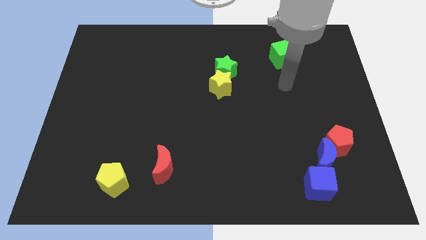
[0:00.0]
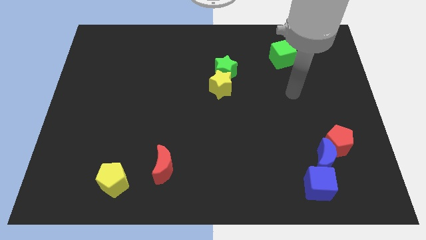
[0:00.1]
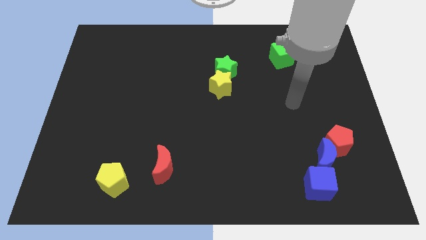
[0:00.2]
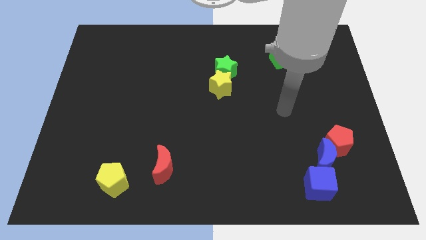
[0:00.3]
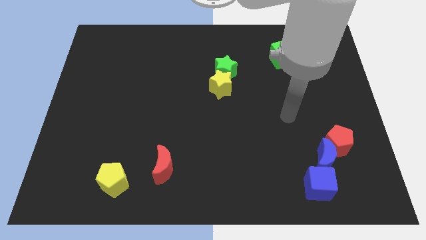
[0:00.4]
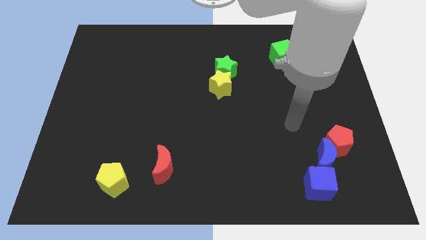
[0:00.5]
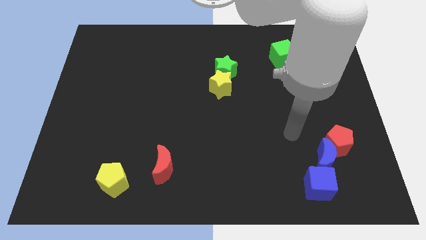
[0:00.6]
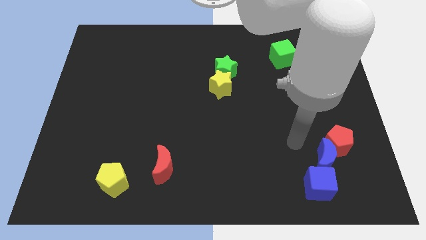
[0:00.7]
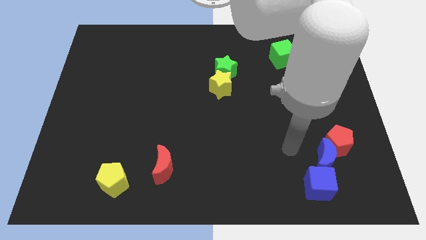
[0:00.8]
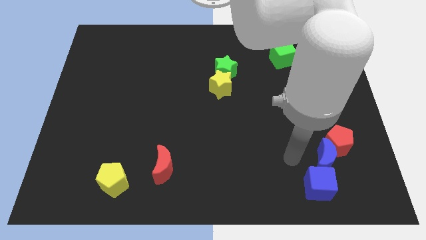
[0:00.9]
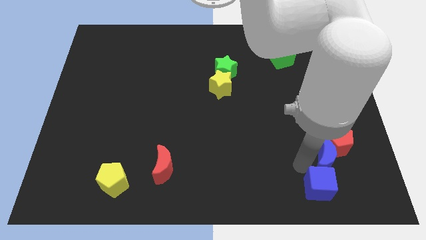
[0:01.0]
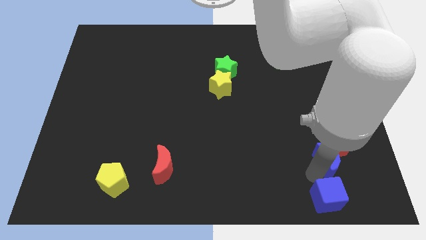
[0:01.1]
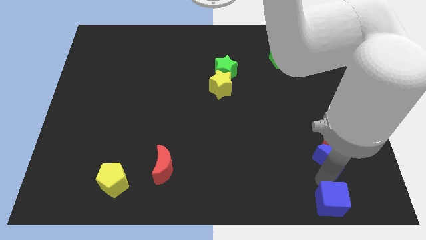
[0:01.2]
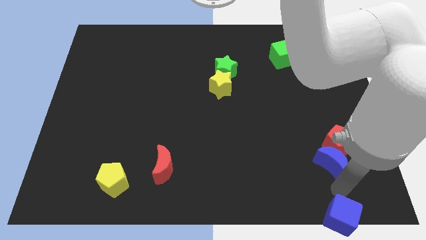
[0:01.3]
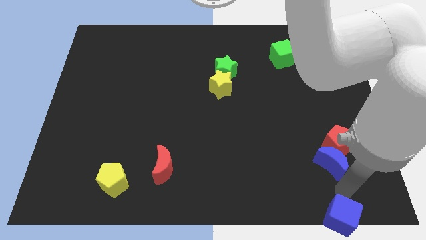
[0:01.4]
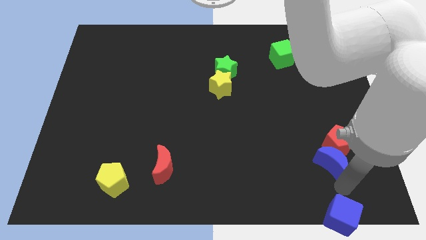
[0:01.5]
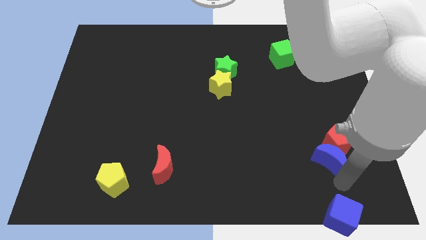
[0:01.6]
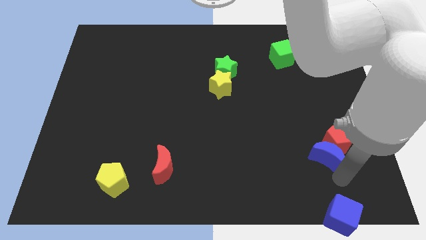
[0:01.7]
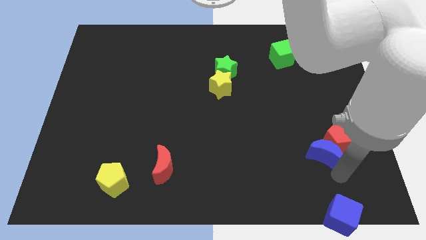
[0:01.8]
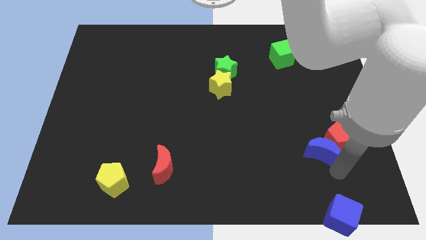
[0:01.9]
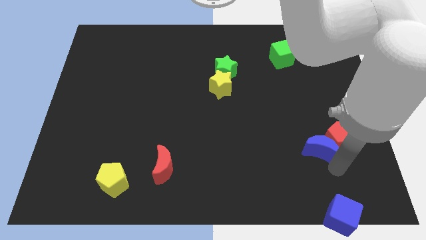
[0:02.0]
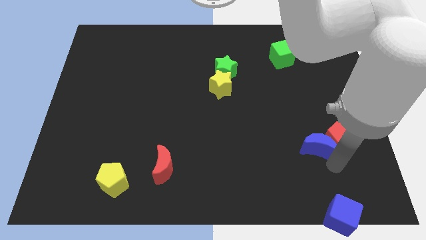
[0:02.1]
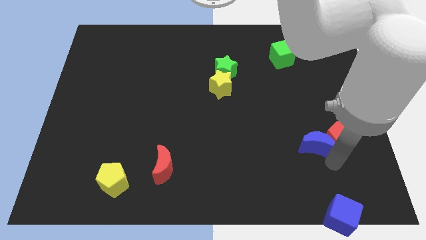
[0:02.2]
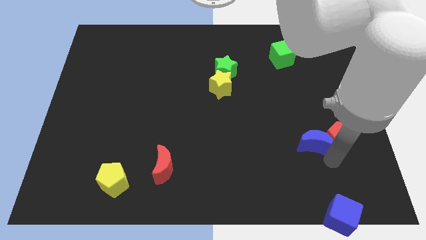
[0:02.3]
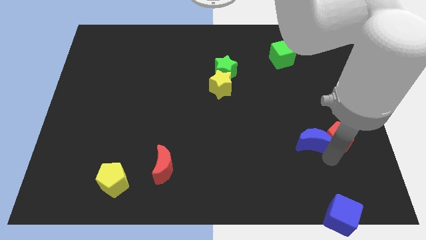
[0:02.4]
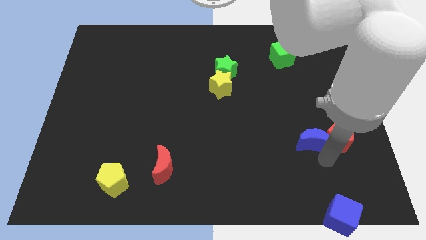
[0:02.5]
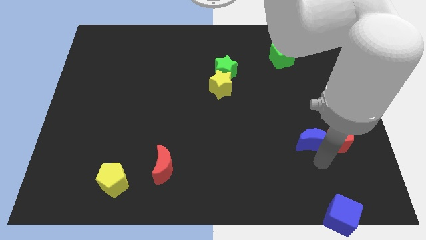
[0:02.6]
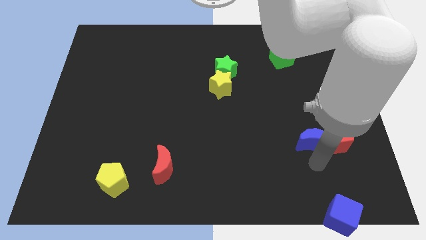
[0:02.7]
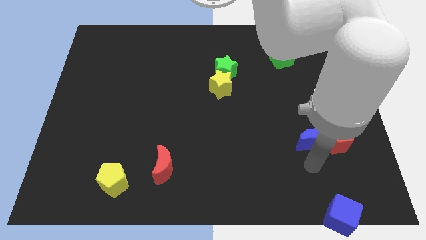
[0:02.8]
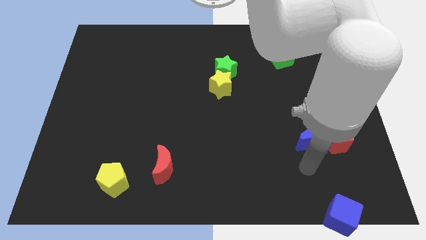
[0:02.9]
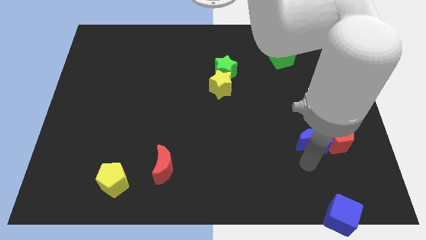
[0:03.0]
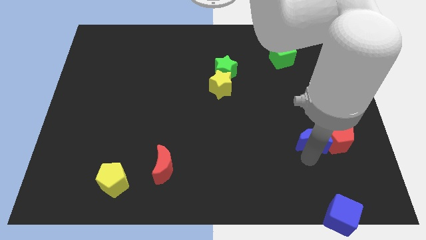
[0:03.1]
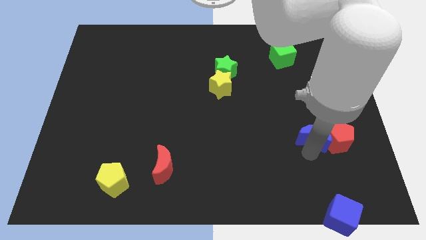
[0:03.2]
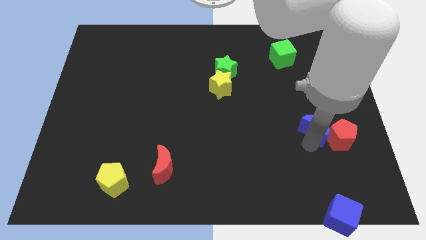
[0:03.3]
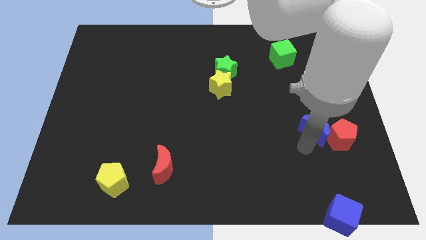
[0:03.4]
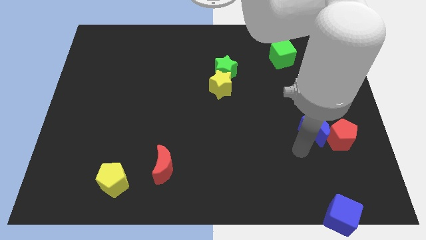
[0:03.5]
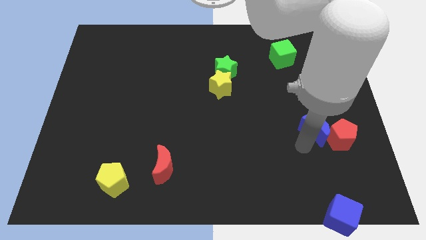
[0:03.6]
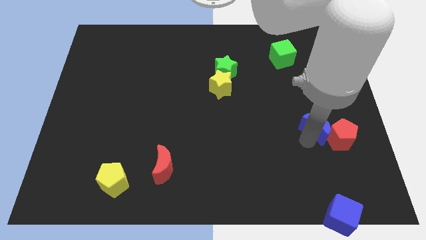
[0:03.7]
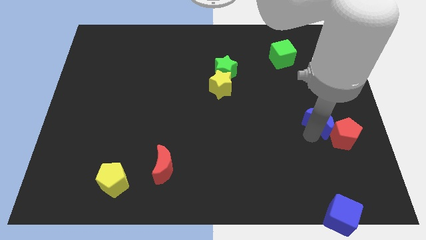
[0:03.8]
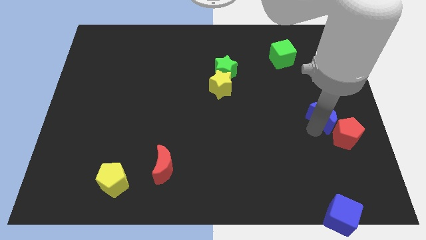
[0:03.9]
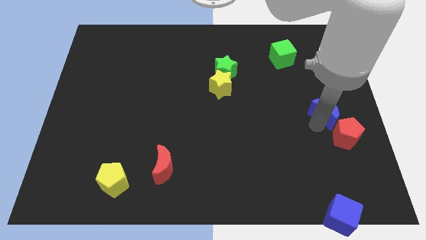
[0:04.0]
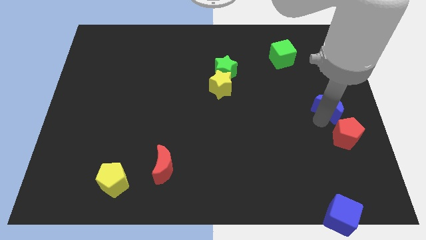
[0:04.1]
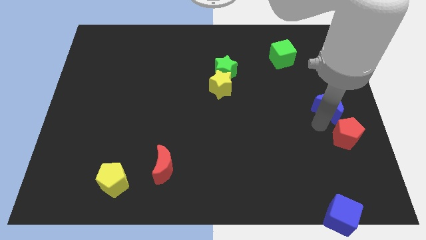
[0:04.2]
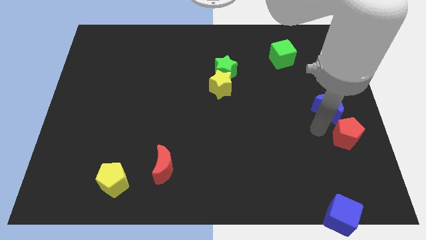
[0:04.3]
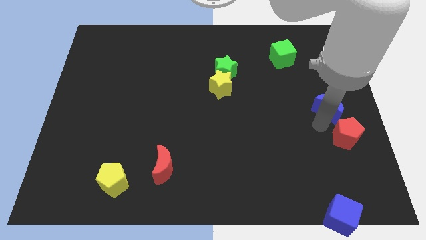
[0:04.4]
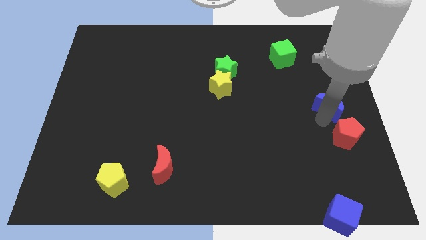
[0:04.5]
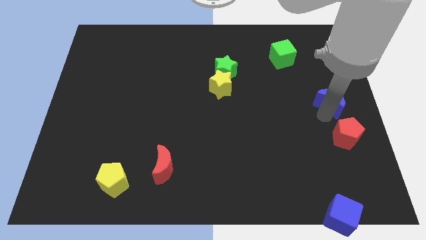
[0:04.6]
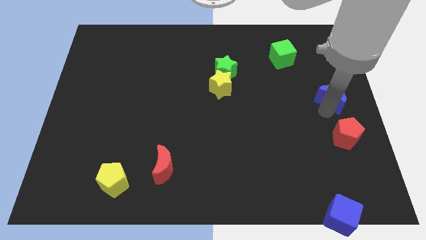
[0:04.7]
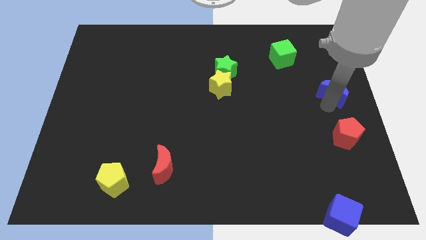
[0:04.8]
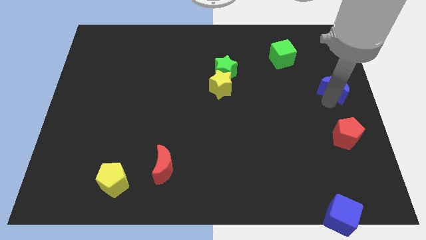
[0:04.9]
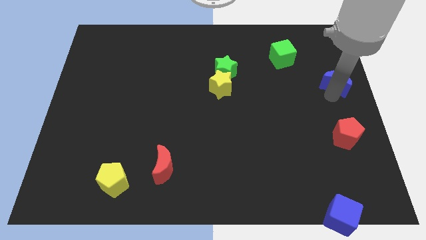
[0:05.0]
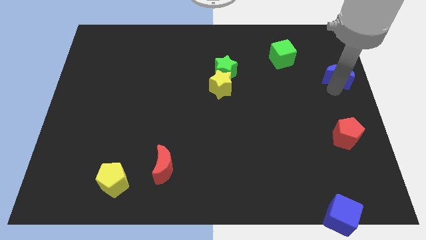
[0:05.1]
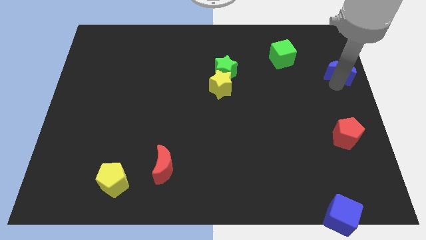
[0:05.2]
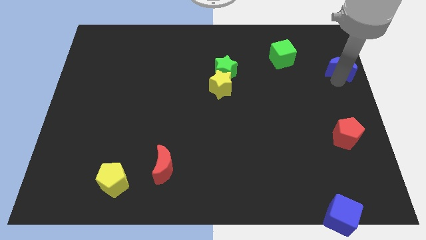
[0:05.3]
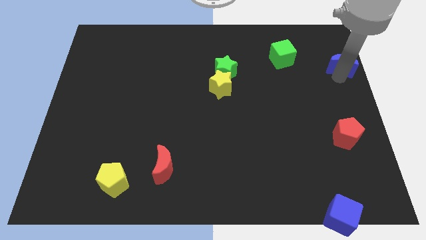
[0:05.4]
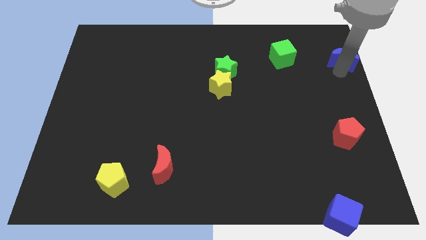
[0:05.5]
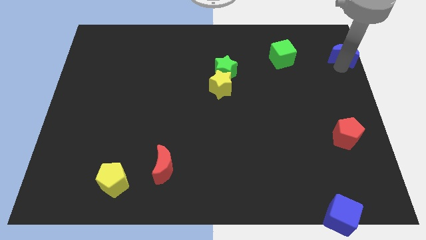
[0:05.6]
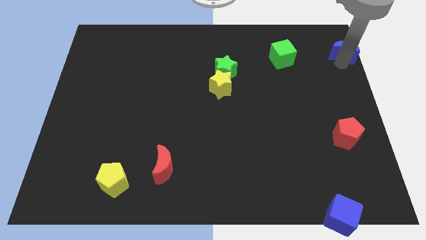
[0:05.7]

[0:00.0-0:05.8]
move the blue moon to the top right corner

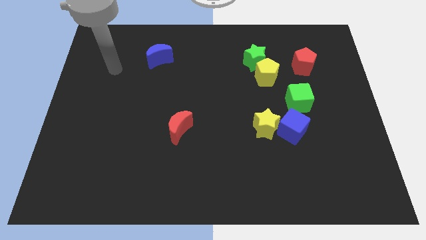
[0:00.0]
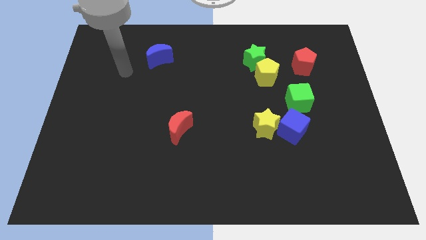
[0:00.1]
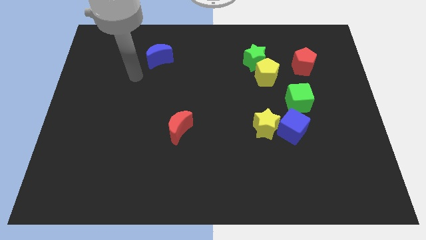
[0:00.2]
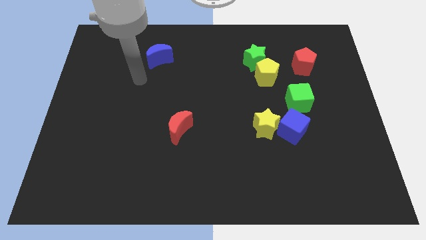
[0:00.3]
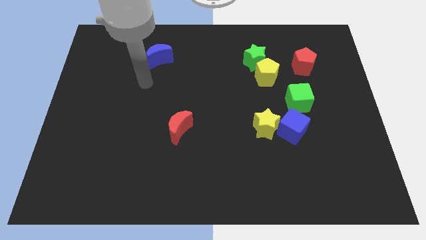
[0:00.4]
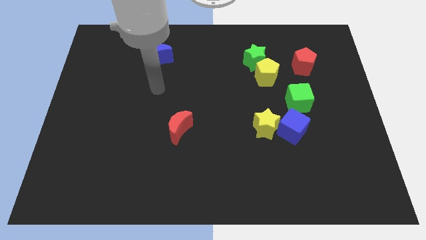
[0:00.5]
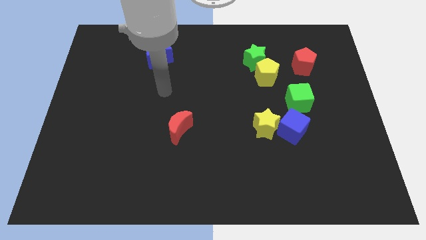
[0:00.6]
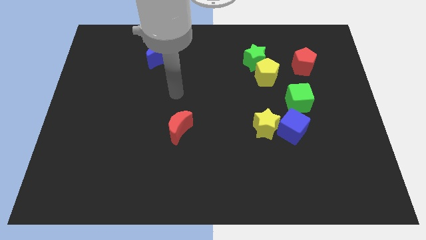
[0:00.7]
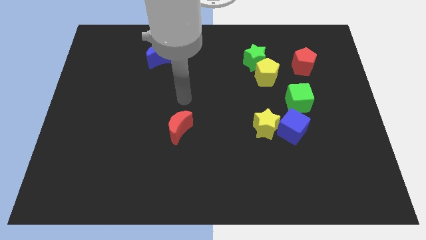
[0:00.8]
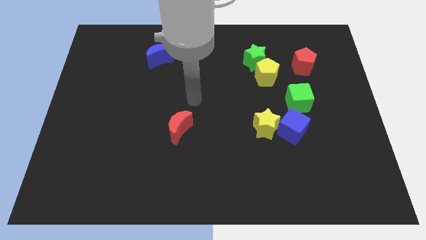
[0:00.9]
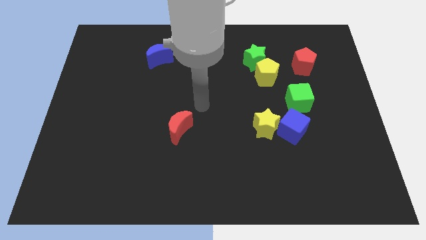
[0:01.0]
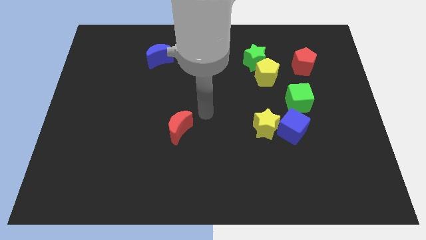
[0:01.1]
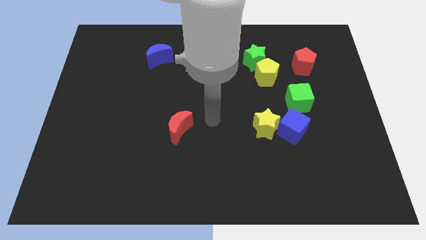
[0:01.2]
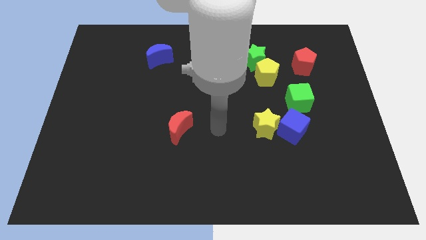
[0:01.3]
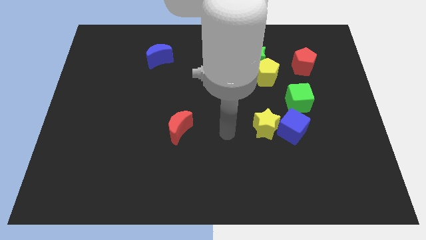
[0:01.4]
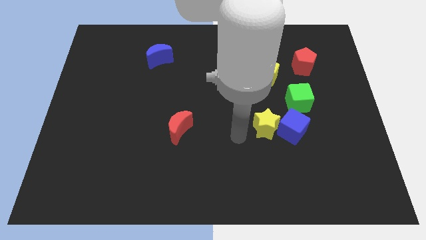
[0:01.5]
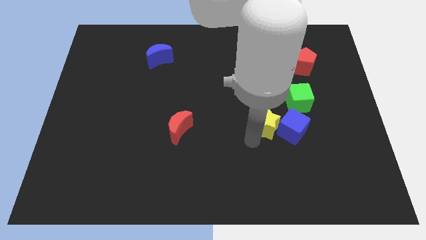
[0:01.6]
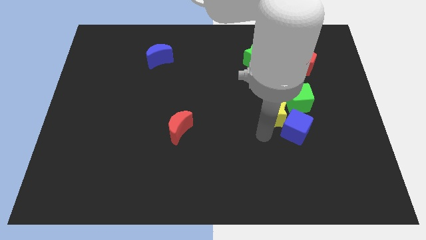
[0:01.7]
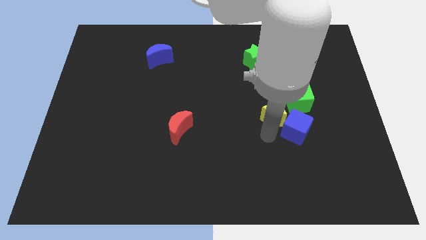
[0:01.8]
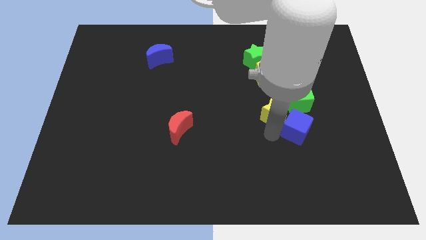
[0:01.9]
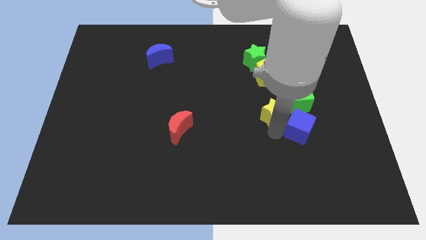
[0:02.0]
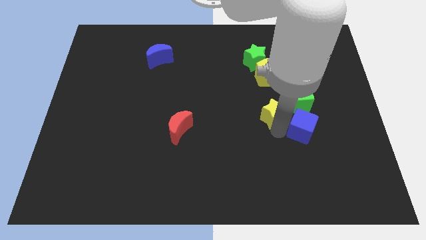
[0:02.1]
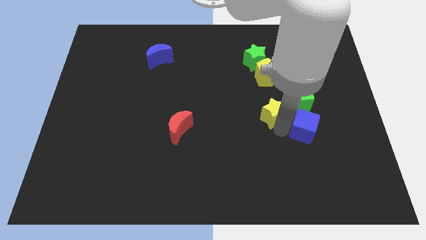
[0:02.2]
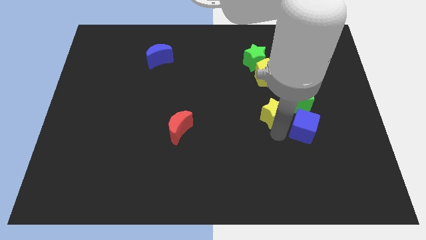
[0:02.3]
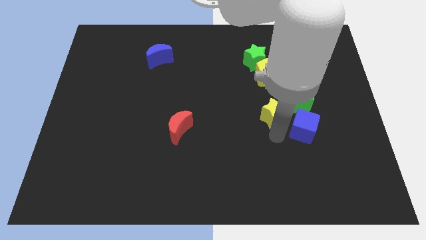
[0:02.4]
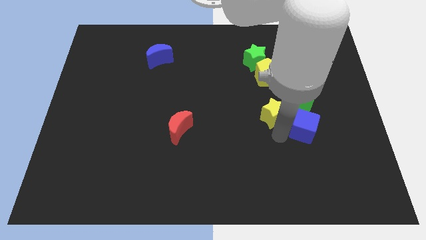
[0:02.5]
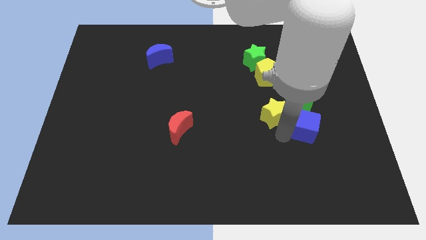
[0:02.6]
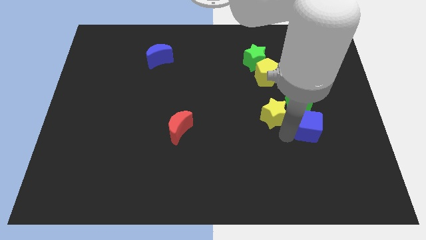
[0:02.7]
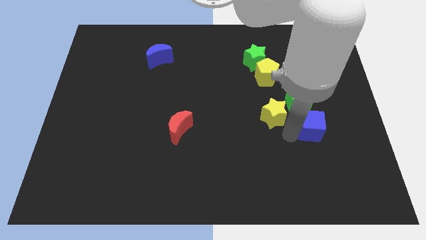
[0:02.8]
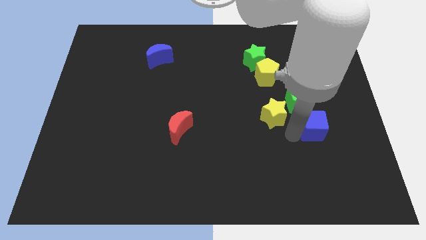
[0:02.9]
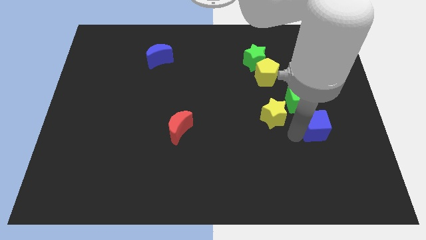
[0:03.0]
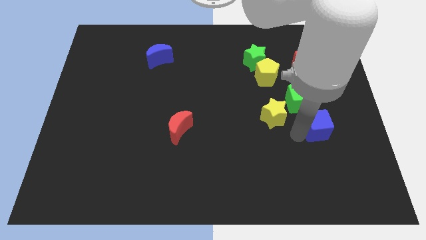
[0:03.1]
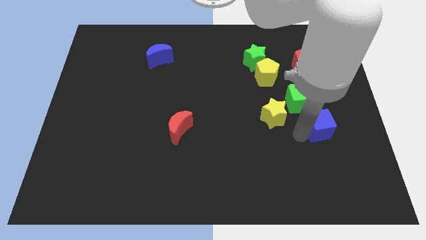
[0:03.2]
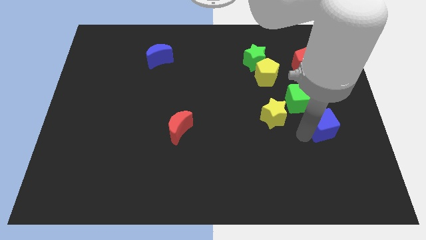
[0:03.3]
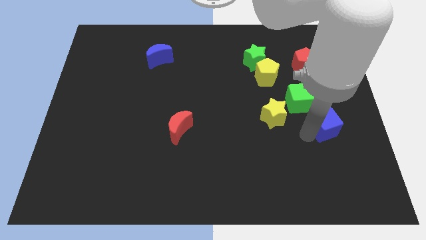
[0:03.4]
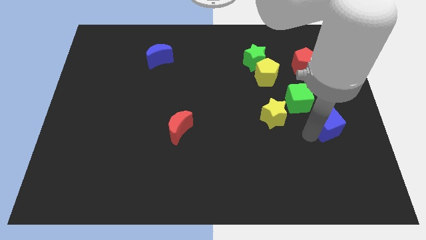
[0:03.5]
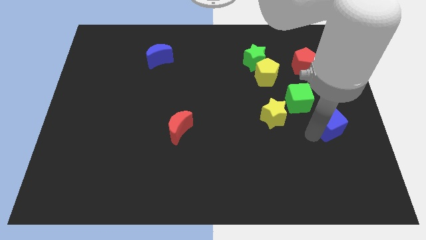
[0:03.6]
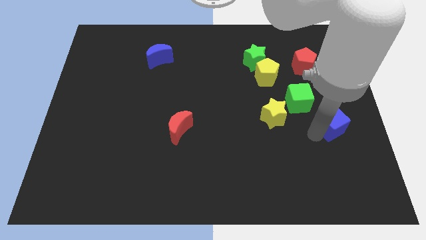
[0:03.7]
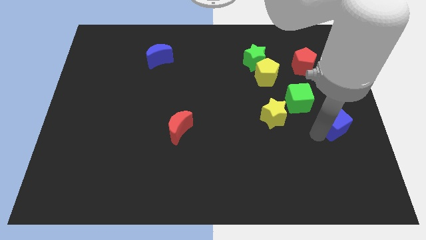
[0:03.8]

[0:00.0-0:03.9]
slide the blue cube to the right side of the board
